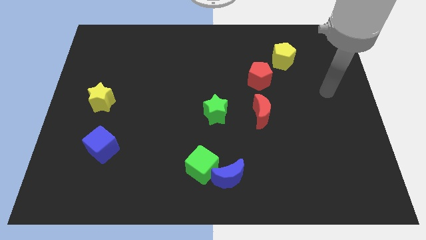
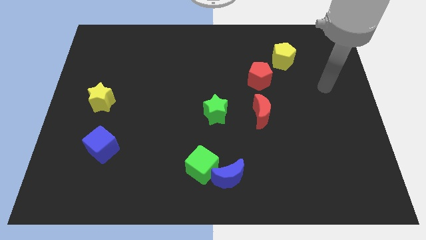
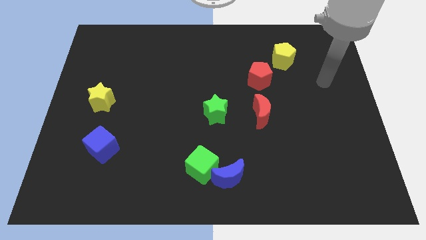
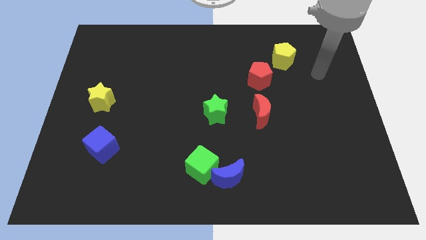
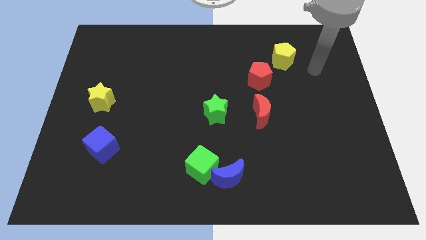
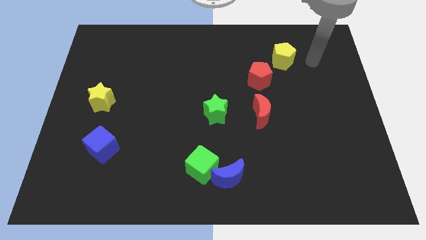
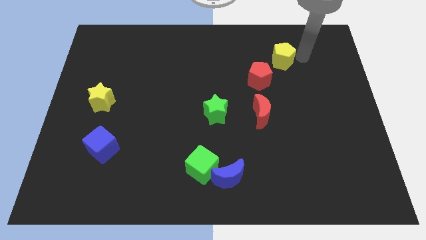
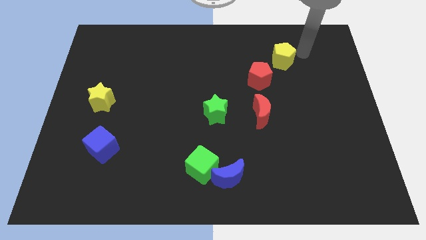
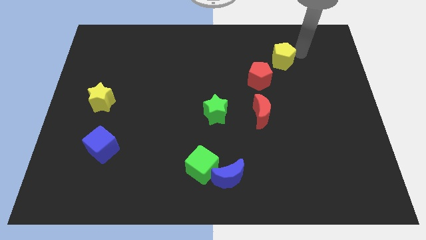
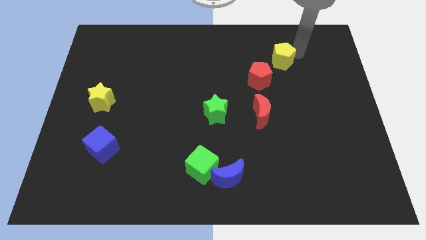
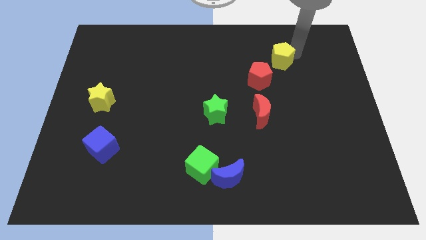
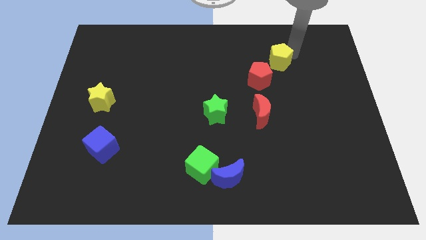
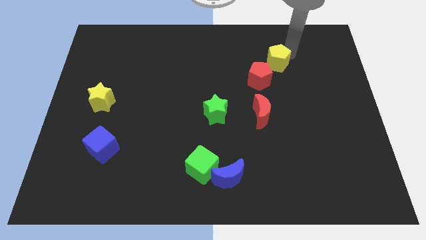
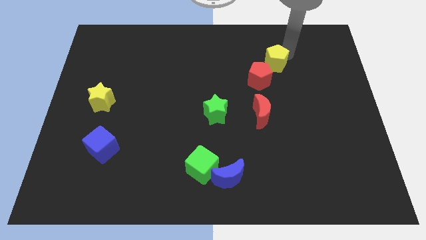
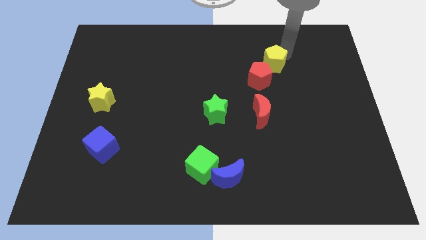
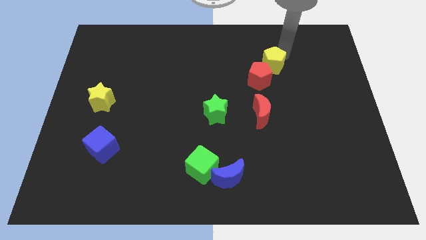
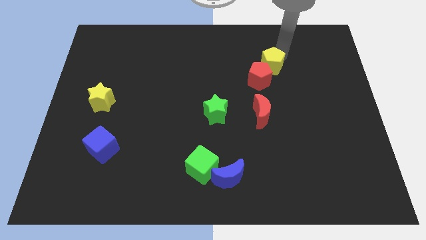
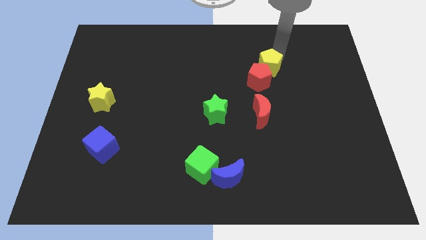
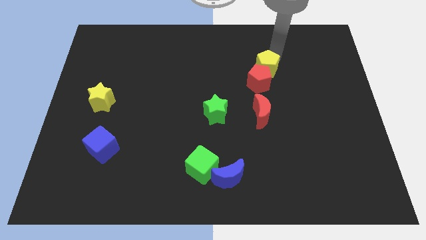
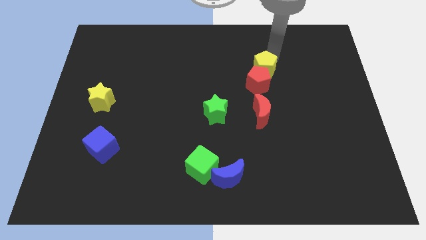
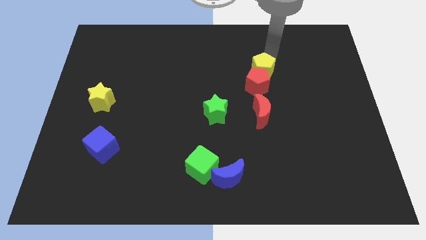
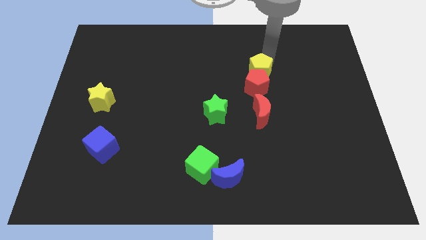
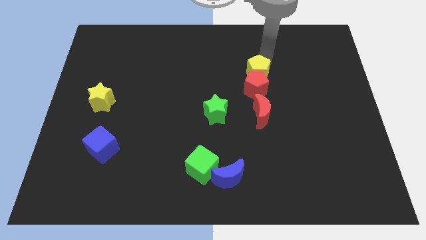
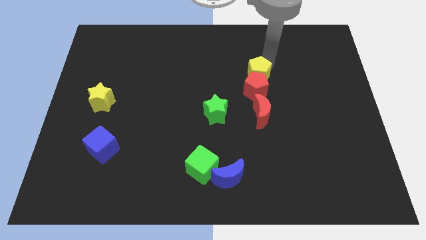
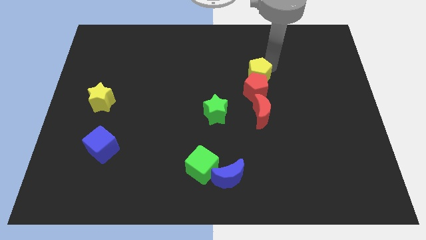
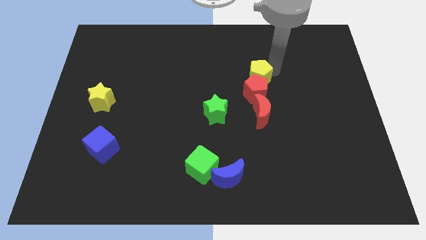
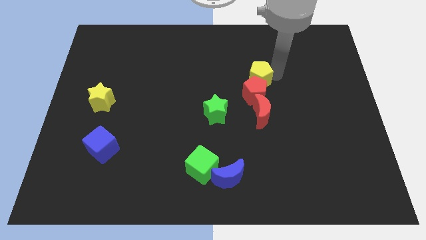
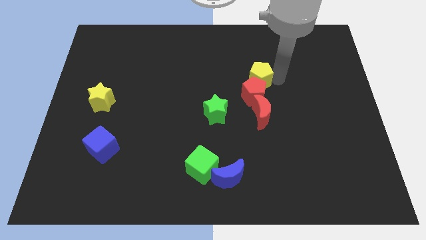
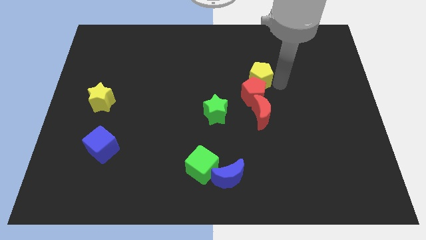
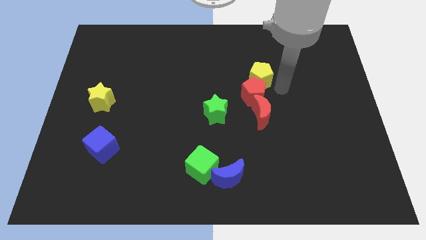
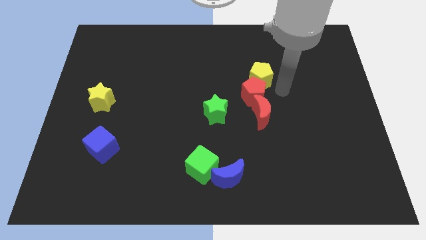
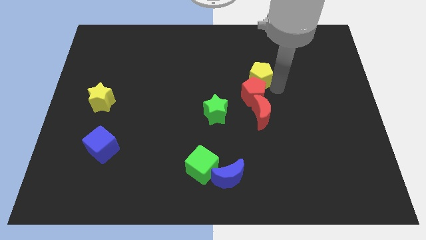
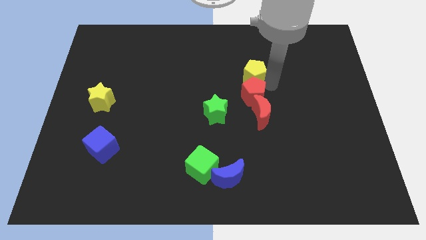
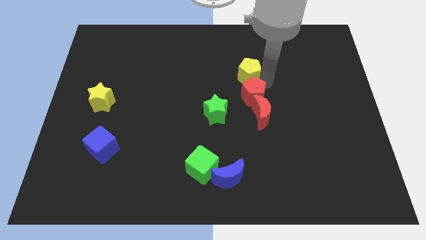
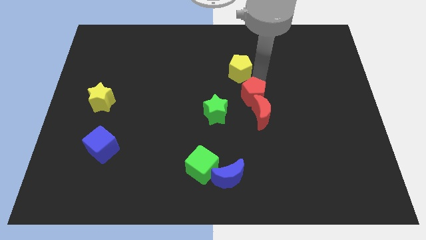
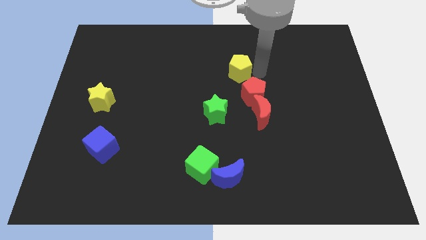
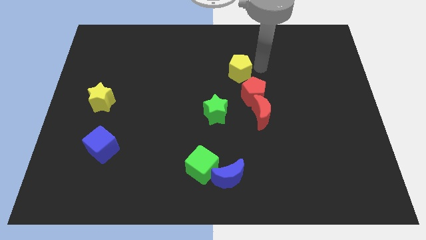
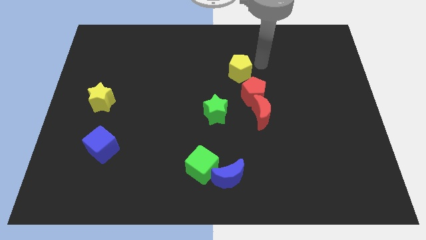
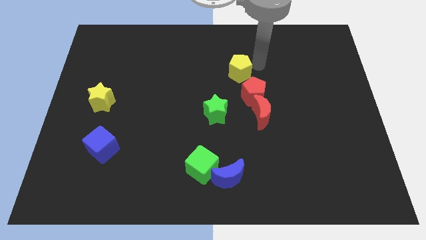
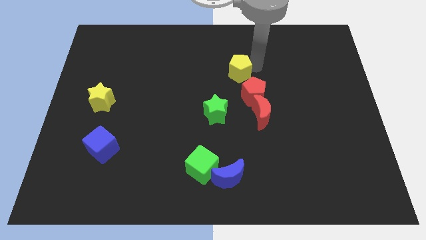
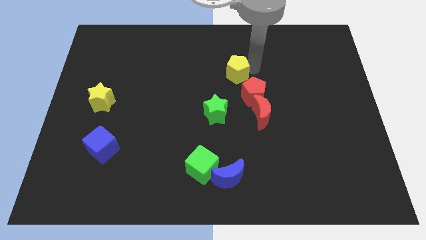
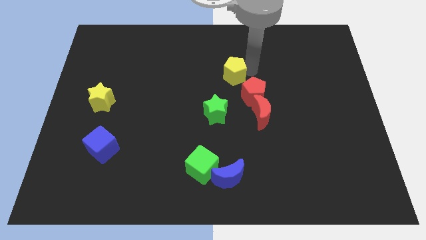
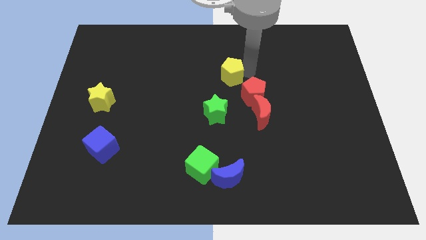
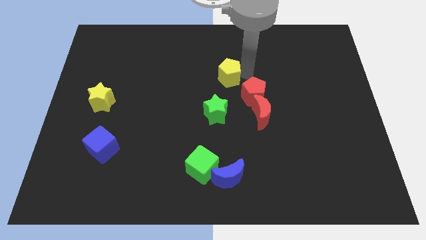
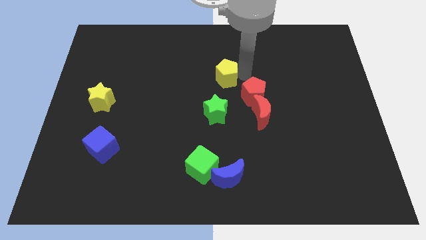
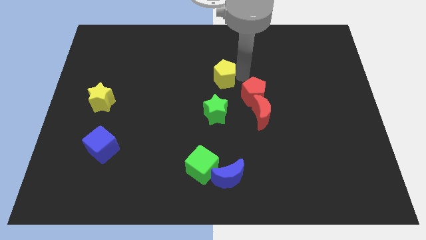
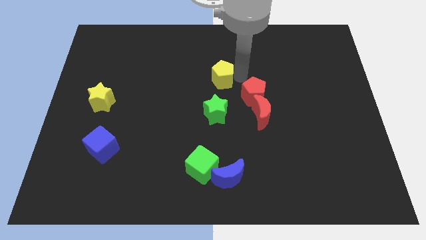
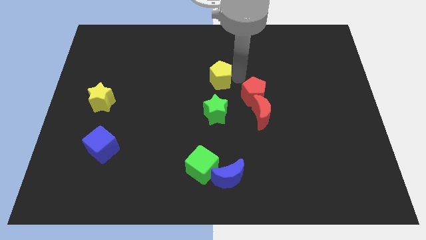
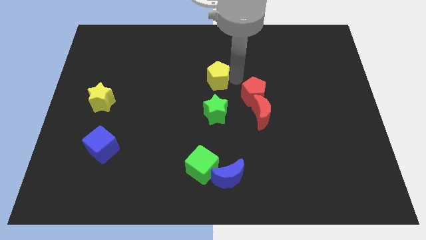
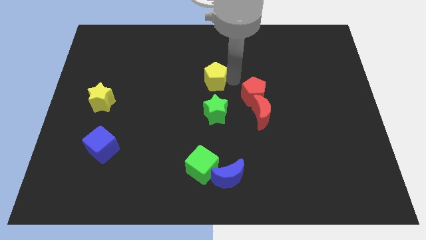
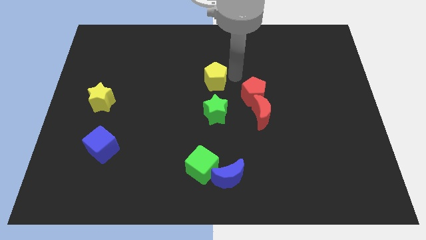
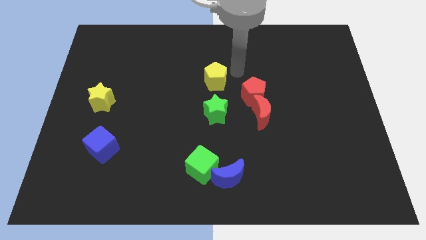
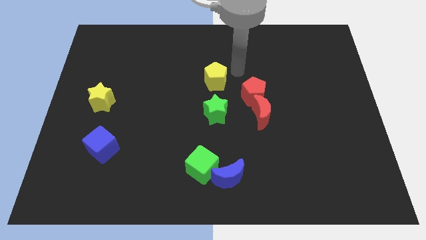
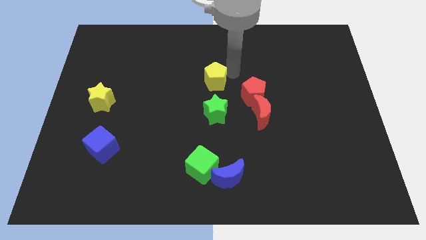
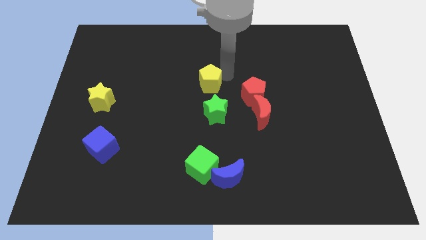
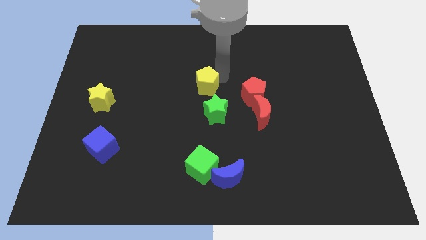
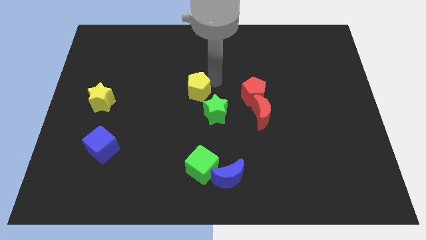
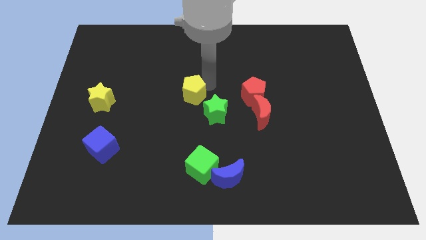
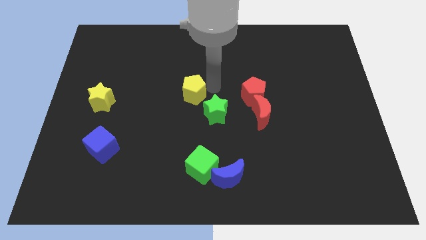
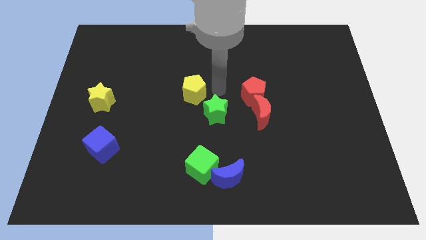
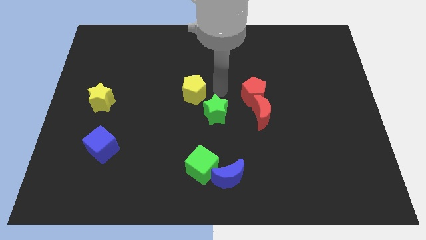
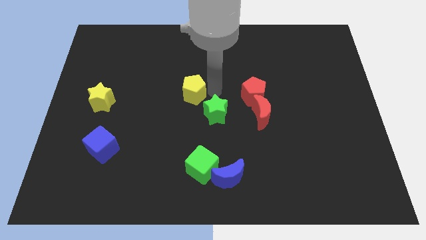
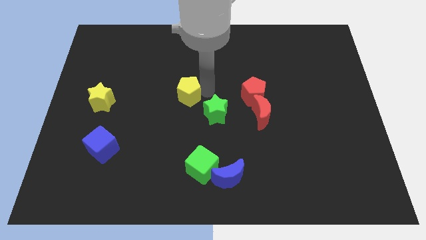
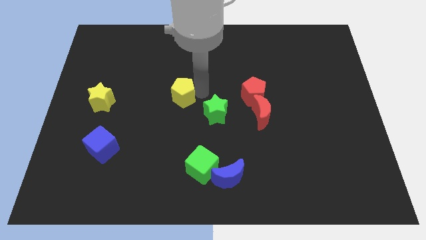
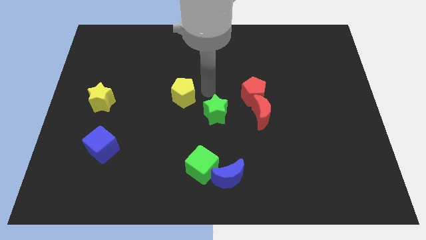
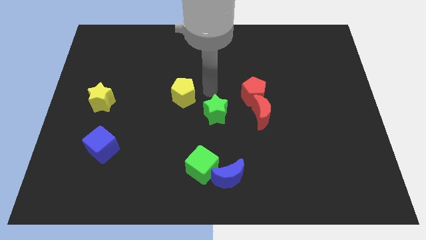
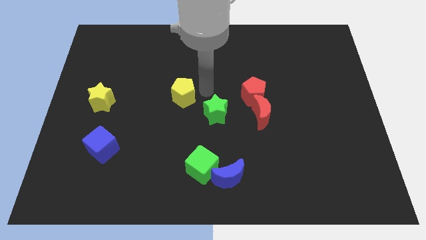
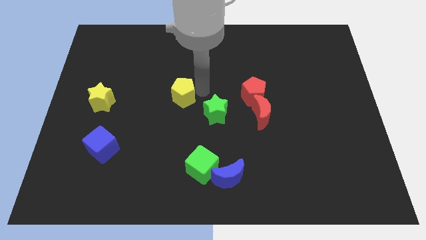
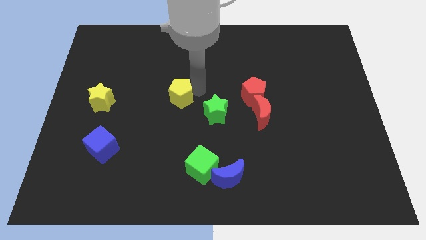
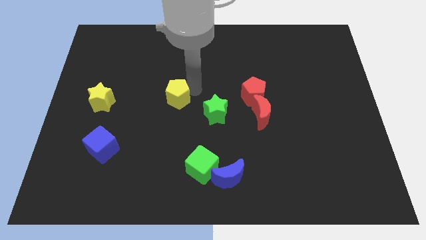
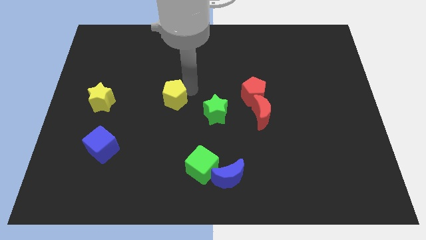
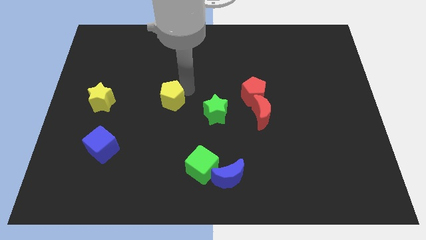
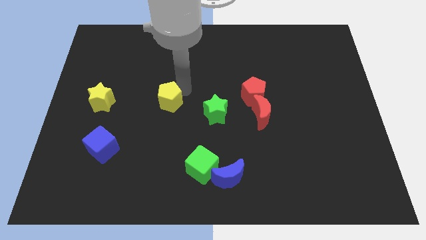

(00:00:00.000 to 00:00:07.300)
push the yellow pentagon just right of the yellow star
